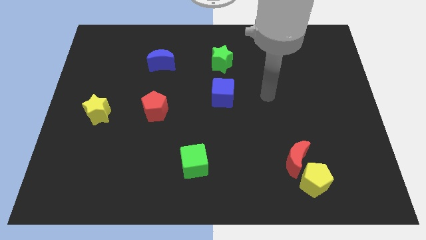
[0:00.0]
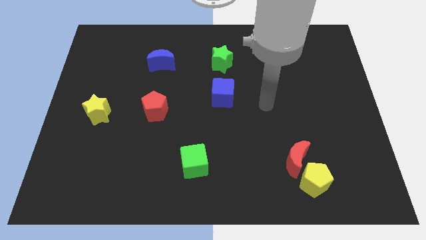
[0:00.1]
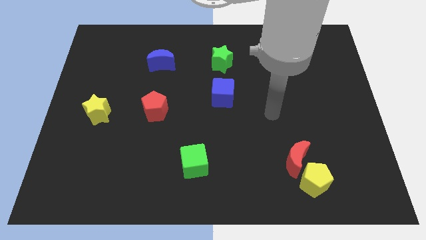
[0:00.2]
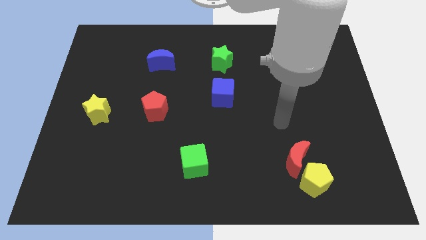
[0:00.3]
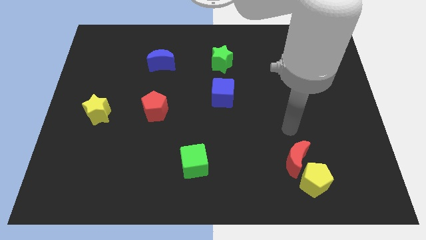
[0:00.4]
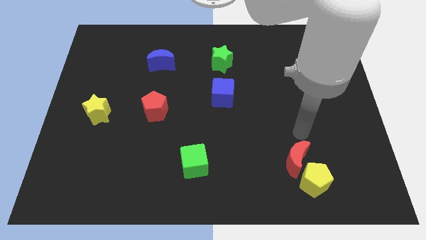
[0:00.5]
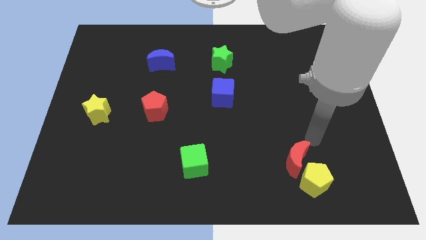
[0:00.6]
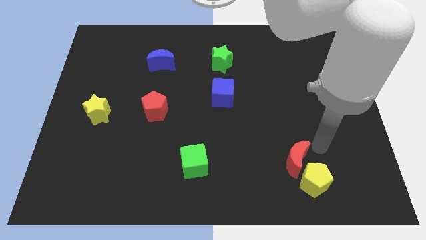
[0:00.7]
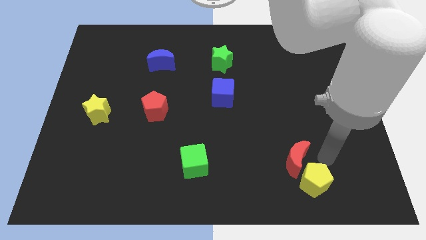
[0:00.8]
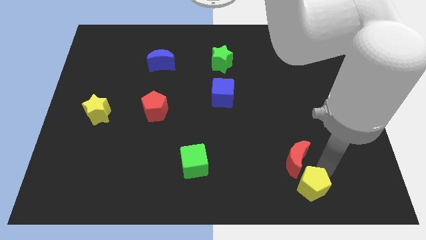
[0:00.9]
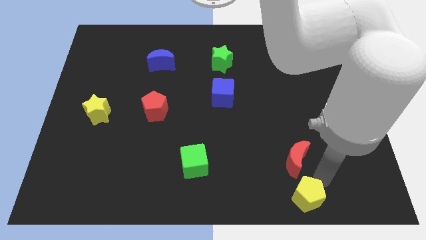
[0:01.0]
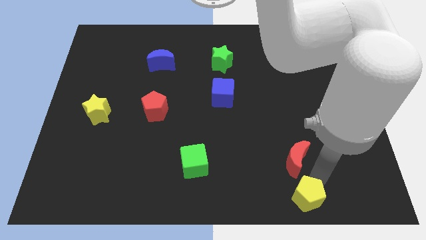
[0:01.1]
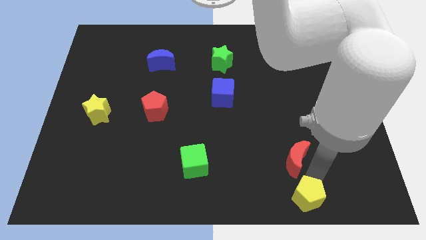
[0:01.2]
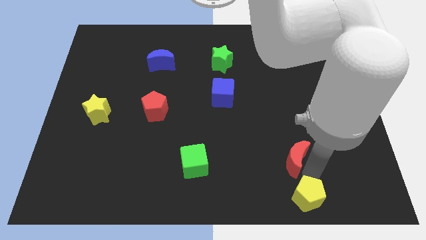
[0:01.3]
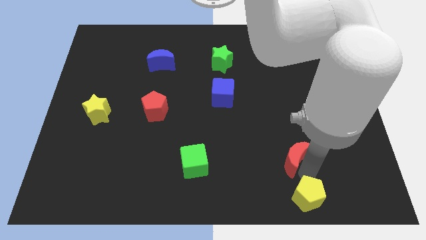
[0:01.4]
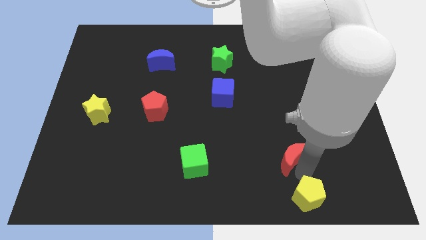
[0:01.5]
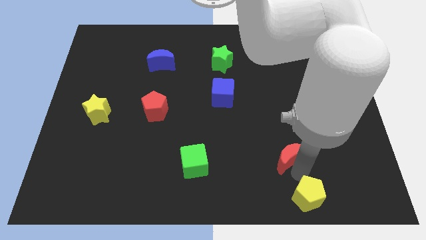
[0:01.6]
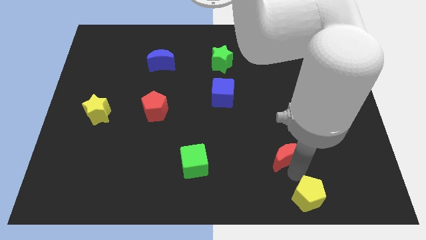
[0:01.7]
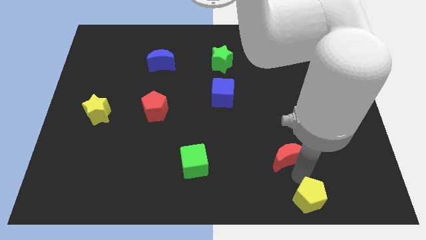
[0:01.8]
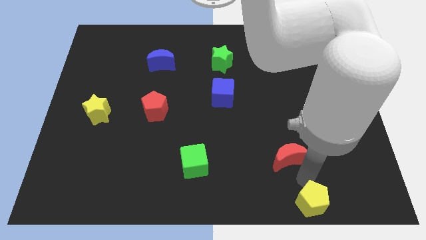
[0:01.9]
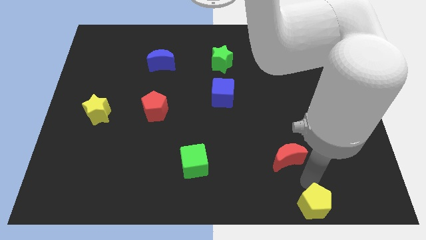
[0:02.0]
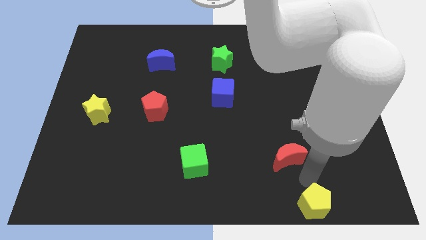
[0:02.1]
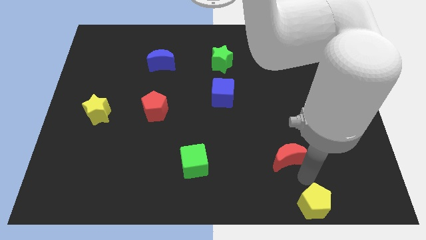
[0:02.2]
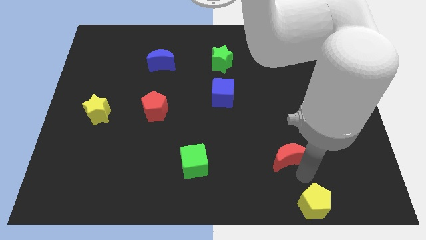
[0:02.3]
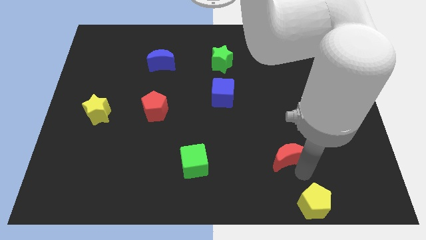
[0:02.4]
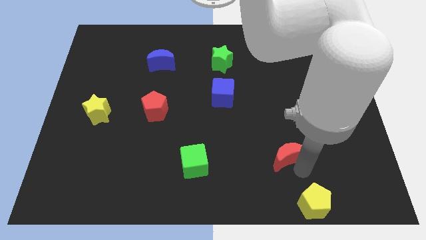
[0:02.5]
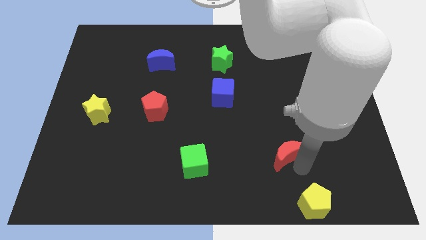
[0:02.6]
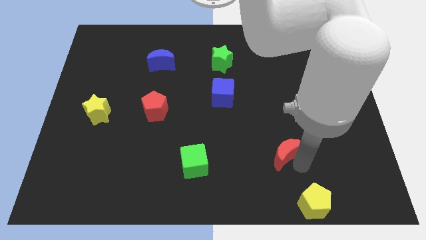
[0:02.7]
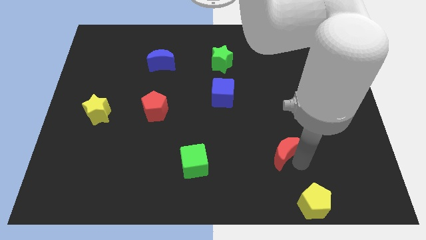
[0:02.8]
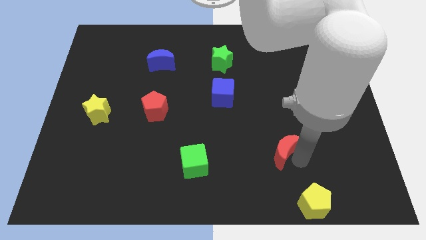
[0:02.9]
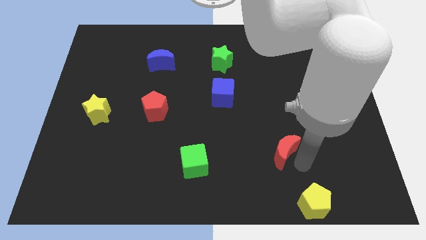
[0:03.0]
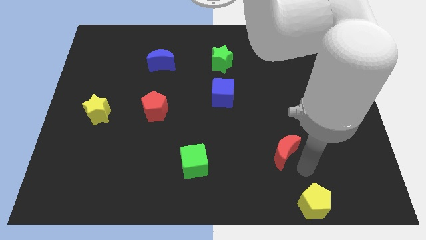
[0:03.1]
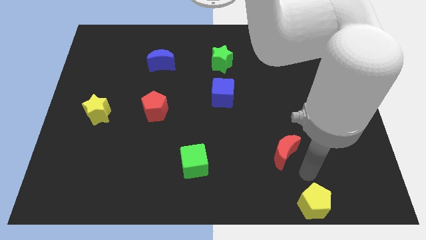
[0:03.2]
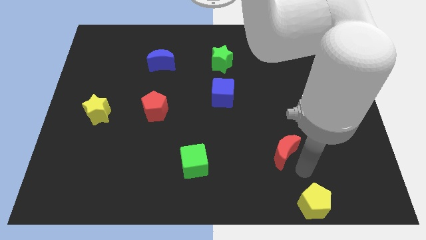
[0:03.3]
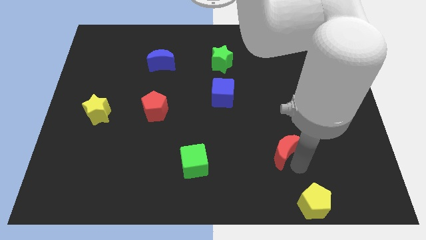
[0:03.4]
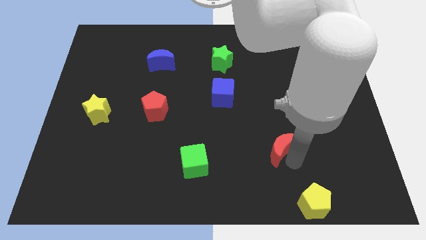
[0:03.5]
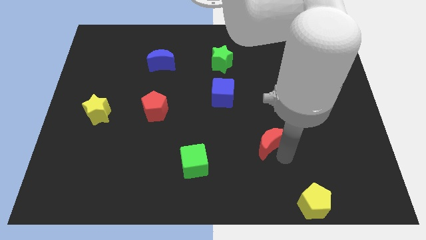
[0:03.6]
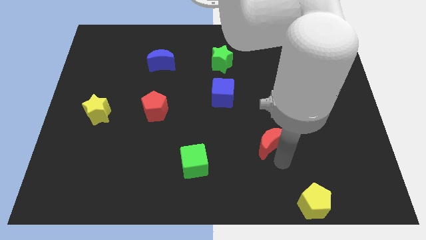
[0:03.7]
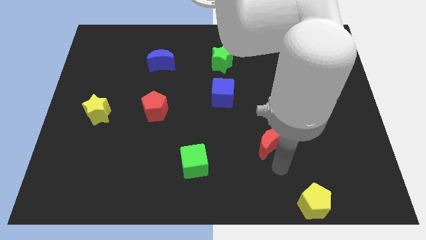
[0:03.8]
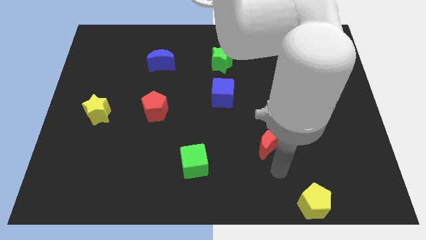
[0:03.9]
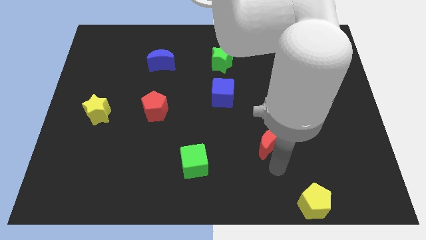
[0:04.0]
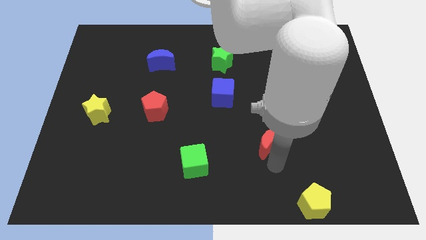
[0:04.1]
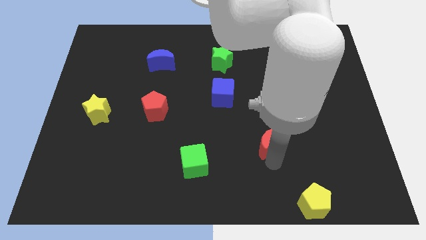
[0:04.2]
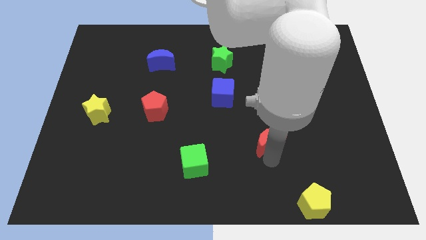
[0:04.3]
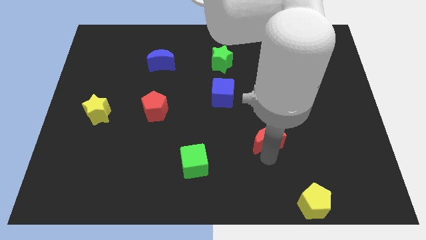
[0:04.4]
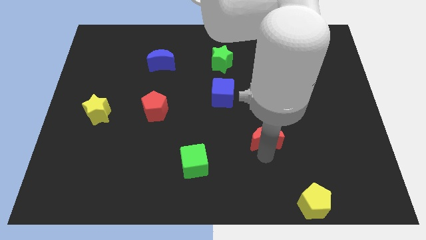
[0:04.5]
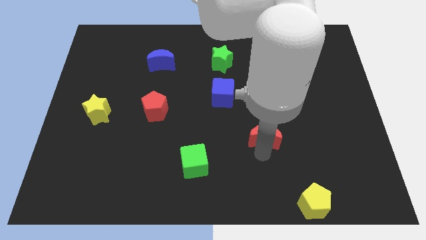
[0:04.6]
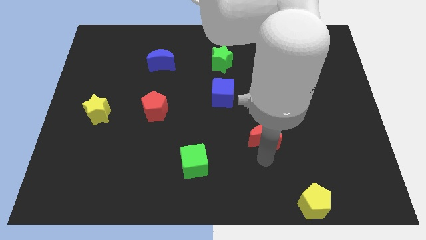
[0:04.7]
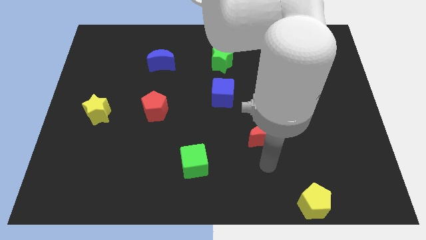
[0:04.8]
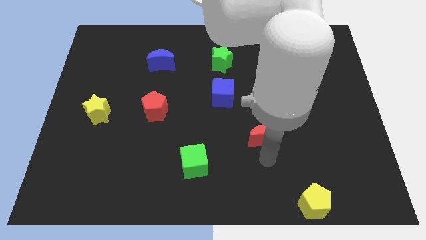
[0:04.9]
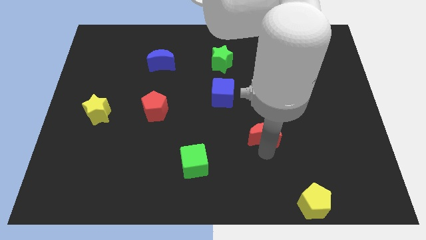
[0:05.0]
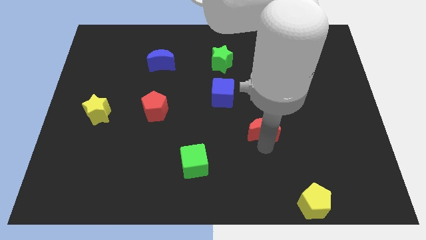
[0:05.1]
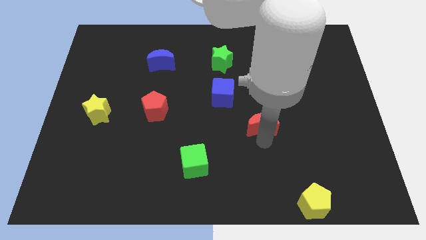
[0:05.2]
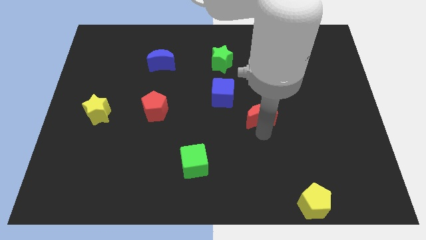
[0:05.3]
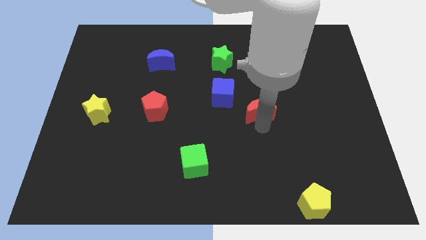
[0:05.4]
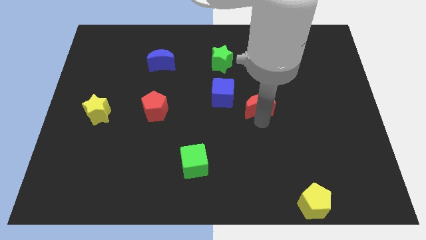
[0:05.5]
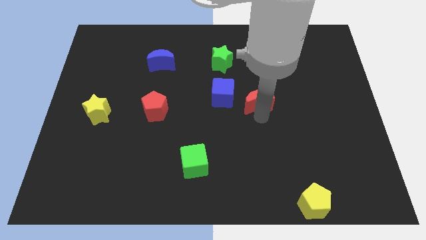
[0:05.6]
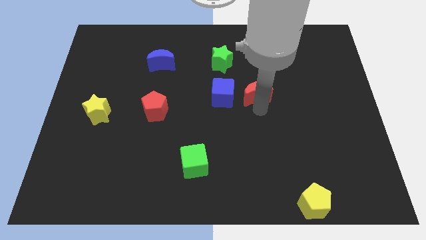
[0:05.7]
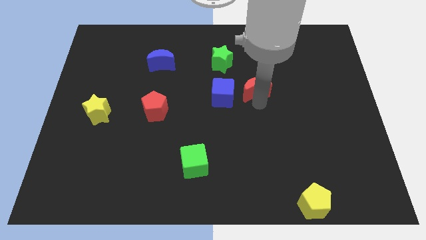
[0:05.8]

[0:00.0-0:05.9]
move the red moon to the bottom right side of the green star

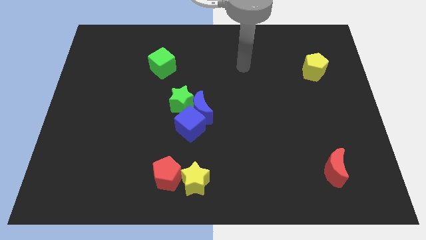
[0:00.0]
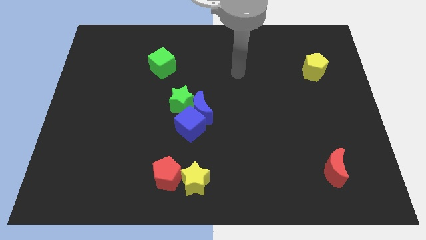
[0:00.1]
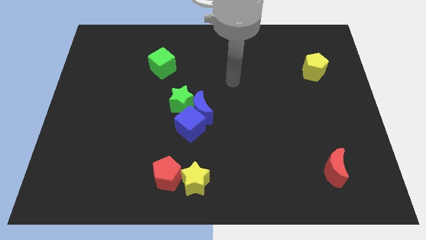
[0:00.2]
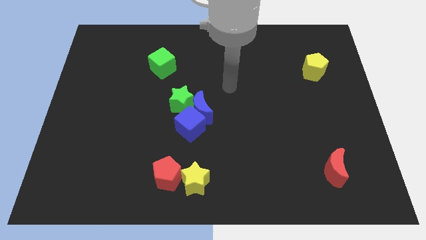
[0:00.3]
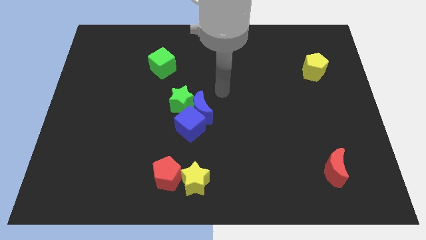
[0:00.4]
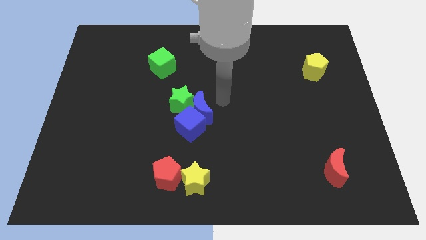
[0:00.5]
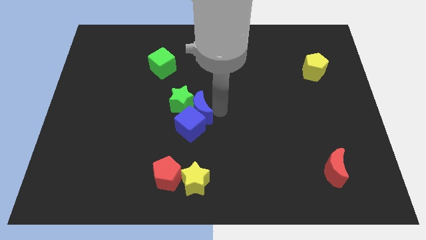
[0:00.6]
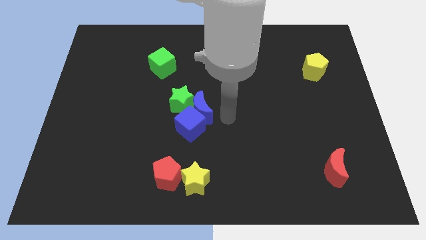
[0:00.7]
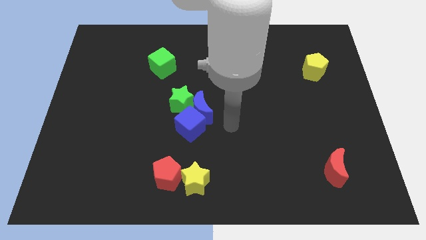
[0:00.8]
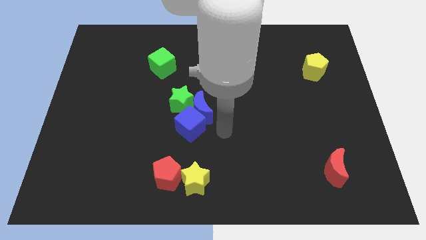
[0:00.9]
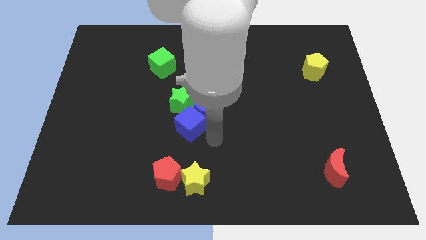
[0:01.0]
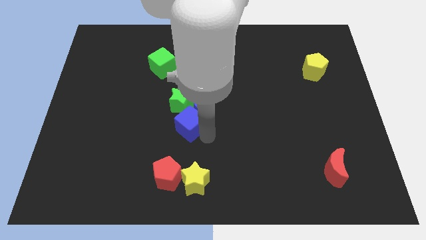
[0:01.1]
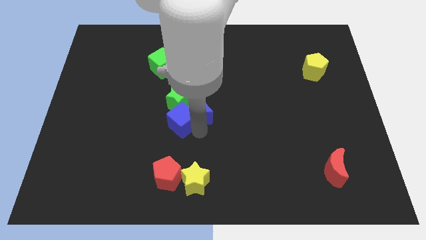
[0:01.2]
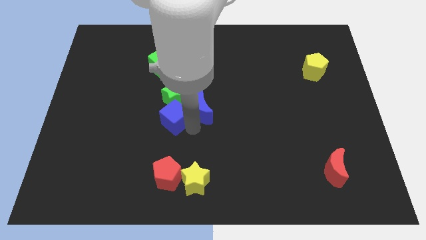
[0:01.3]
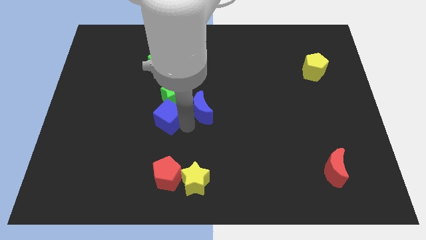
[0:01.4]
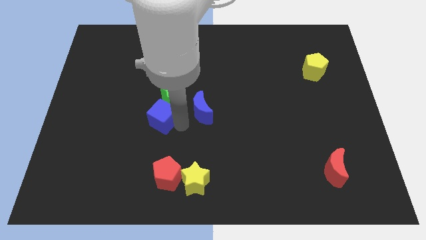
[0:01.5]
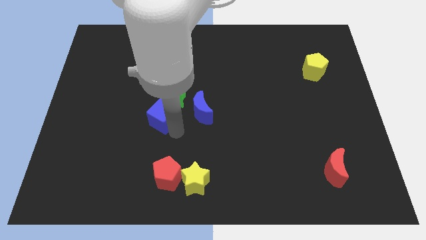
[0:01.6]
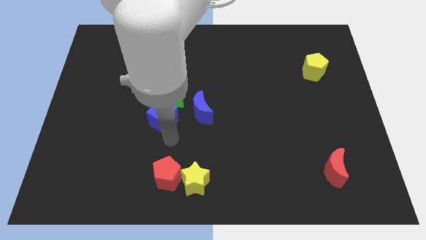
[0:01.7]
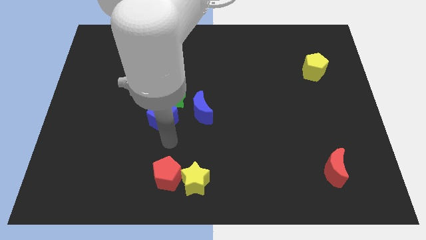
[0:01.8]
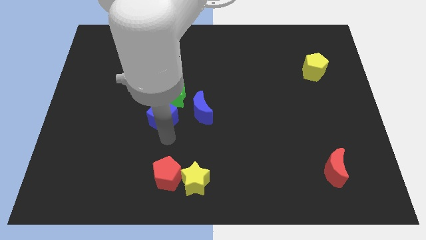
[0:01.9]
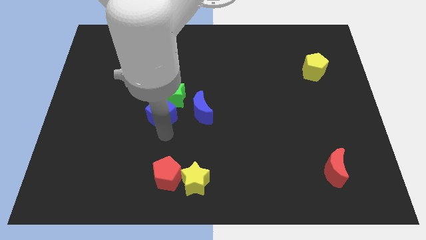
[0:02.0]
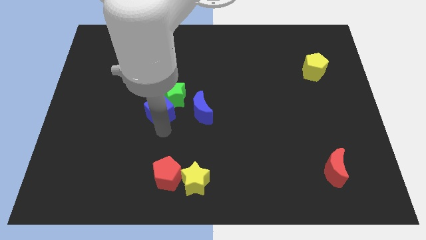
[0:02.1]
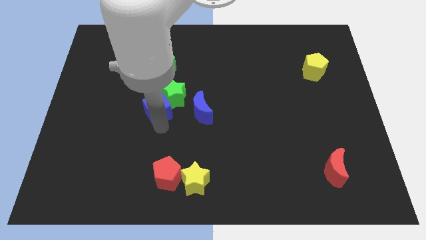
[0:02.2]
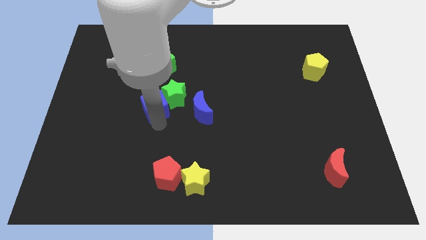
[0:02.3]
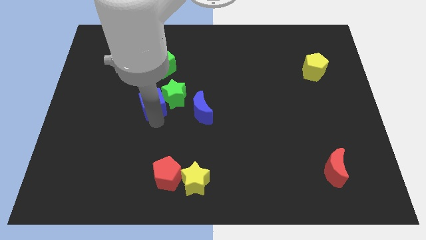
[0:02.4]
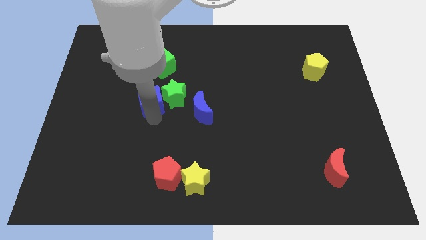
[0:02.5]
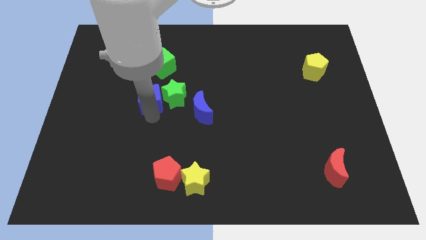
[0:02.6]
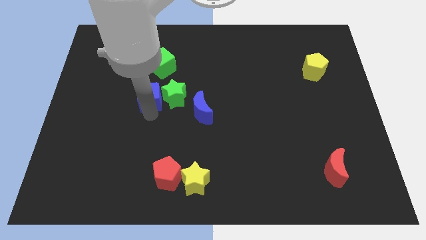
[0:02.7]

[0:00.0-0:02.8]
slide the blue cube diagonally up and to the left of the green star
